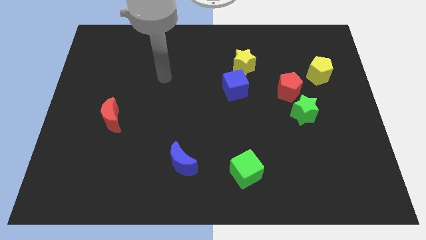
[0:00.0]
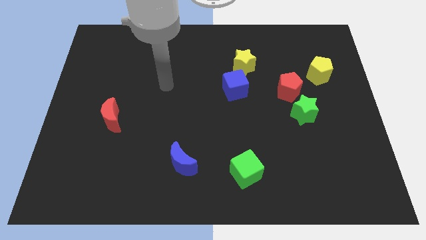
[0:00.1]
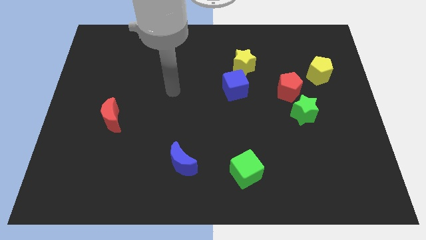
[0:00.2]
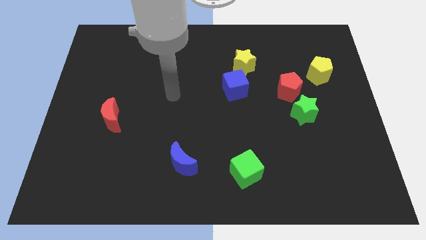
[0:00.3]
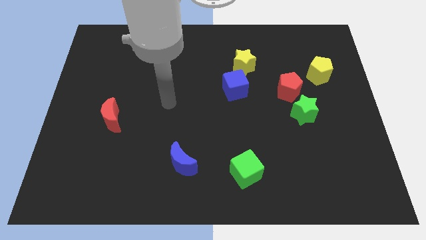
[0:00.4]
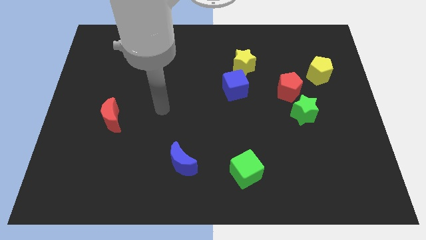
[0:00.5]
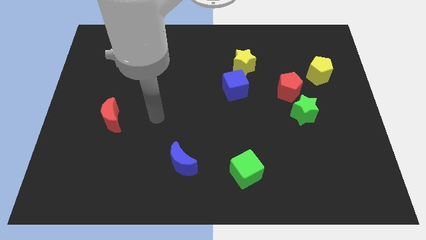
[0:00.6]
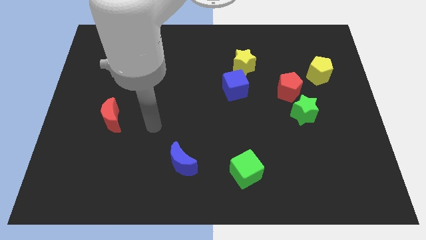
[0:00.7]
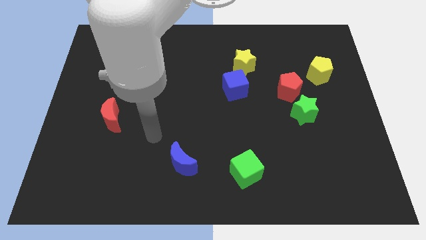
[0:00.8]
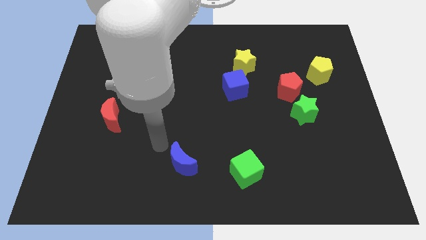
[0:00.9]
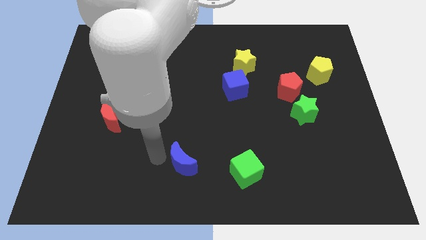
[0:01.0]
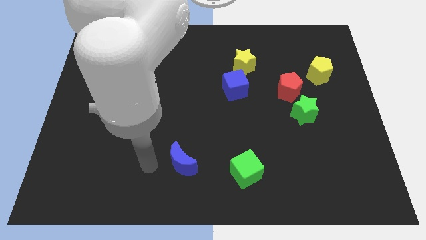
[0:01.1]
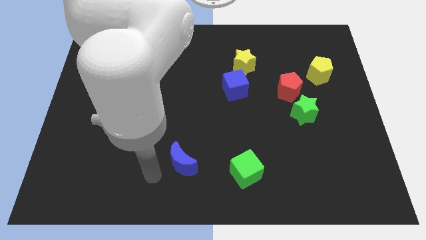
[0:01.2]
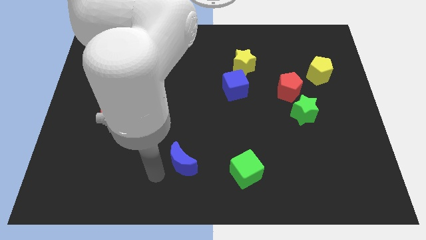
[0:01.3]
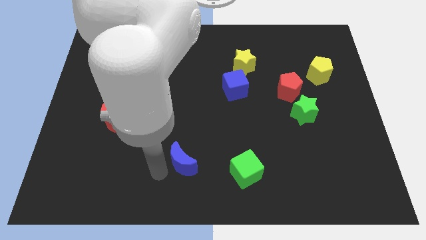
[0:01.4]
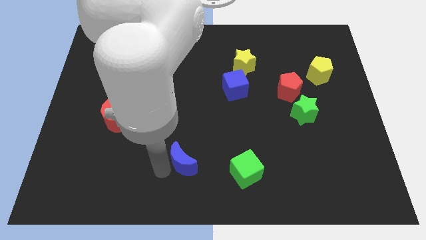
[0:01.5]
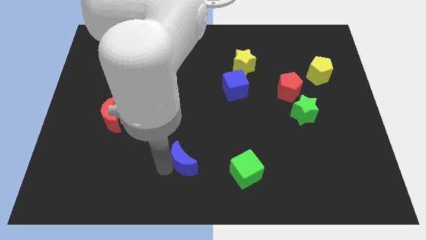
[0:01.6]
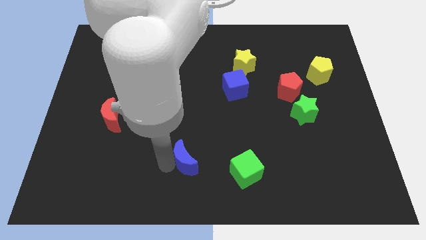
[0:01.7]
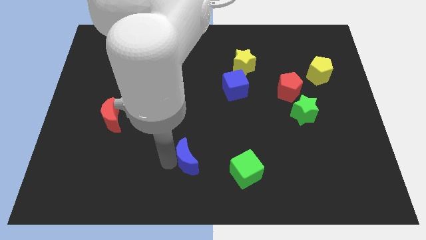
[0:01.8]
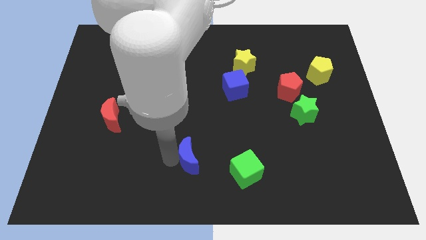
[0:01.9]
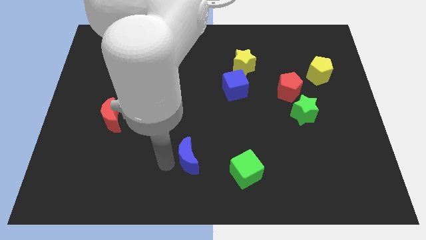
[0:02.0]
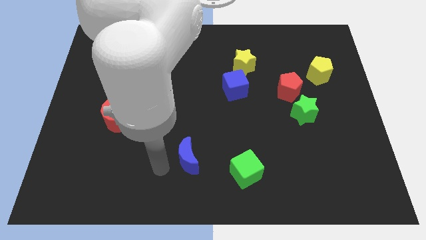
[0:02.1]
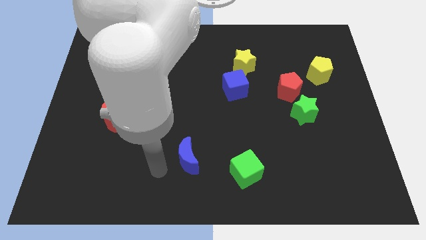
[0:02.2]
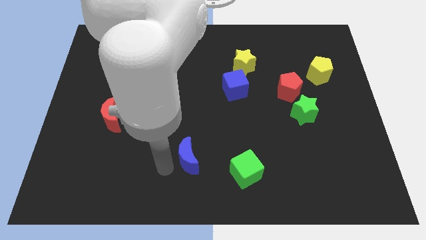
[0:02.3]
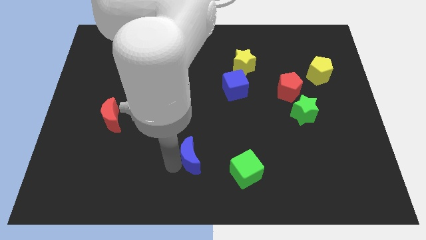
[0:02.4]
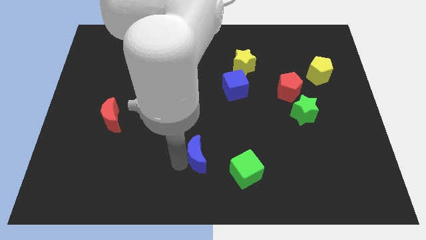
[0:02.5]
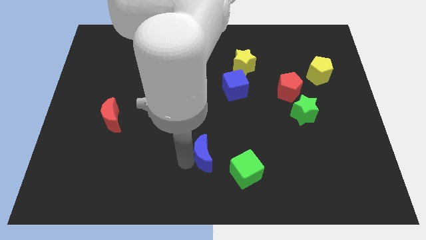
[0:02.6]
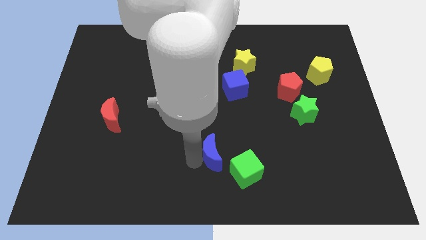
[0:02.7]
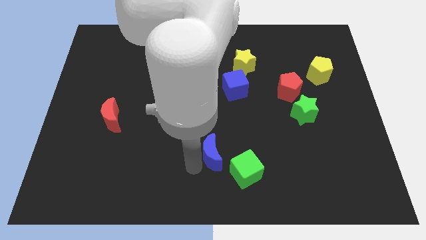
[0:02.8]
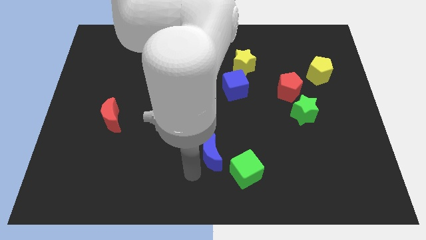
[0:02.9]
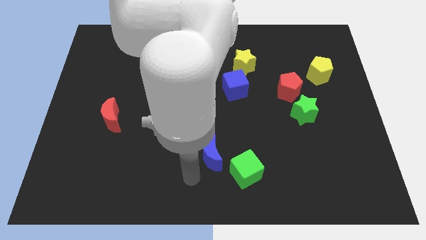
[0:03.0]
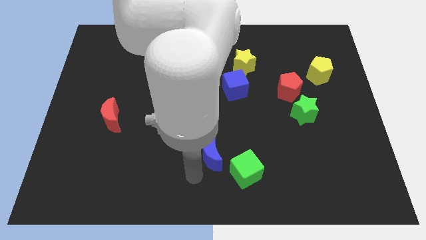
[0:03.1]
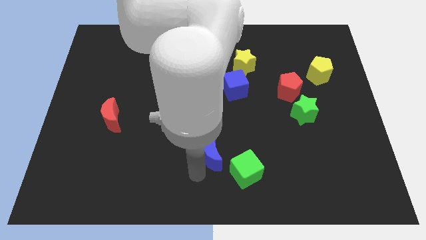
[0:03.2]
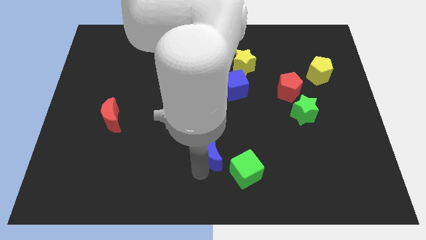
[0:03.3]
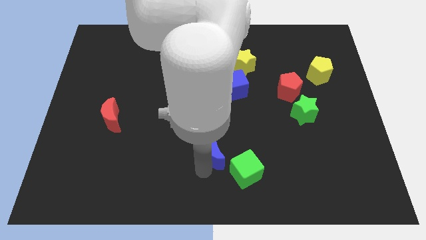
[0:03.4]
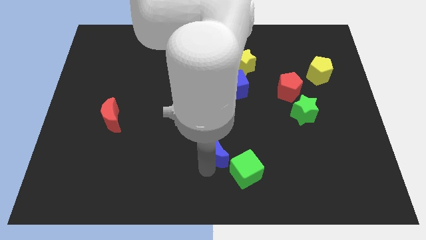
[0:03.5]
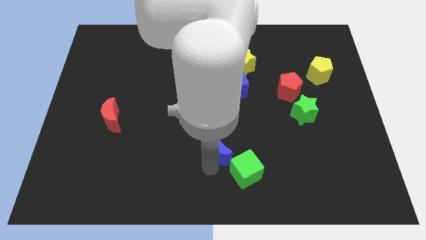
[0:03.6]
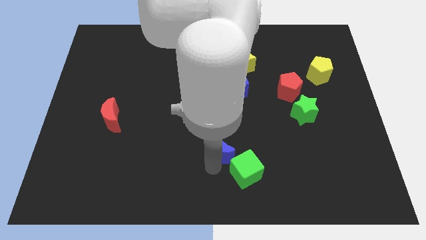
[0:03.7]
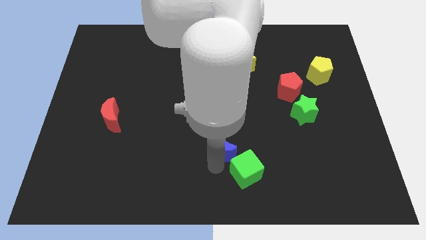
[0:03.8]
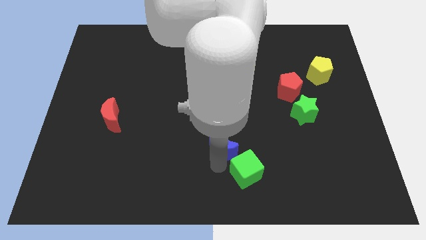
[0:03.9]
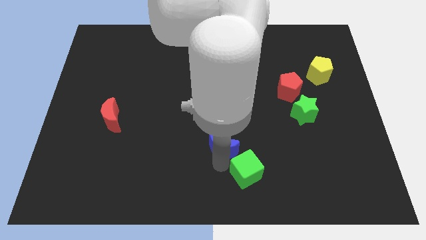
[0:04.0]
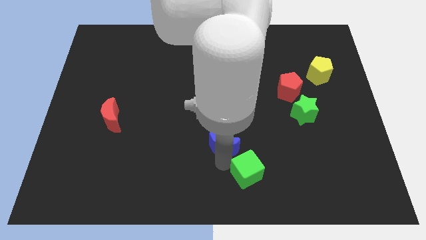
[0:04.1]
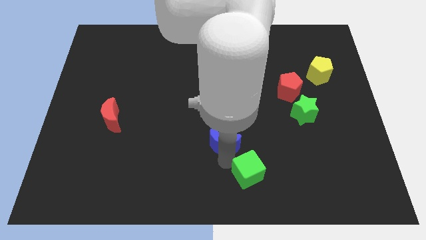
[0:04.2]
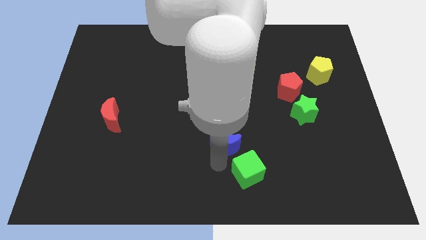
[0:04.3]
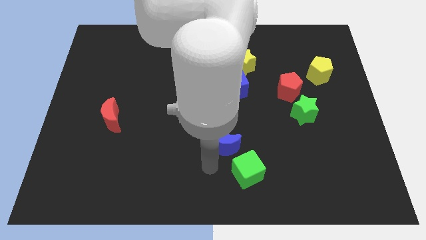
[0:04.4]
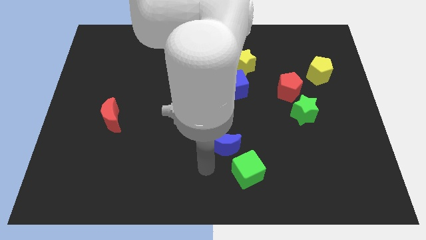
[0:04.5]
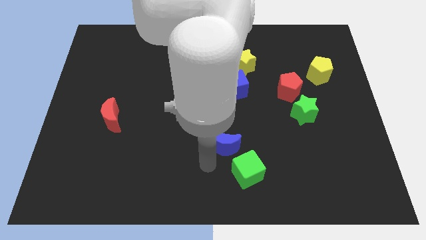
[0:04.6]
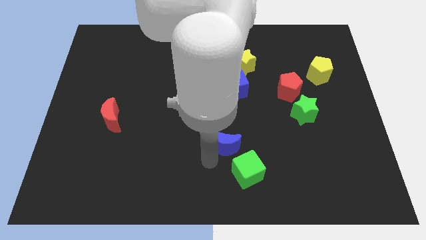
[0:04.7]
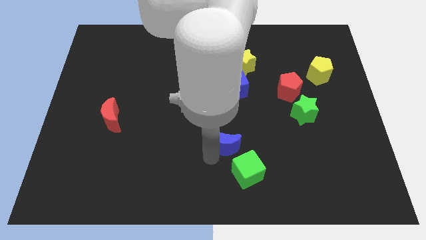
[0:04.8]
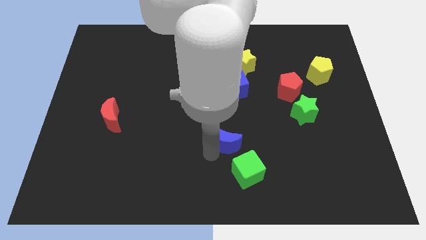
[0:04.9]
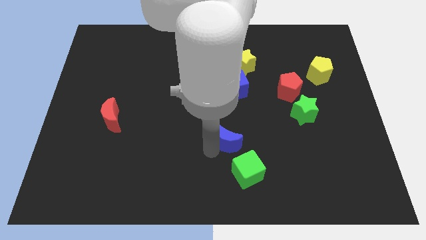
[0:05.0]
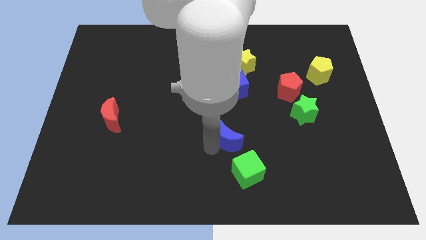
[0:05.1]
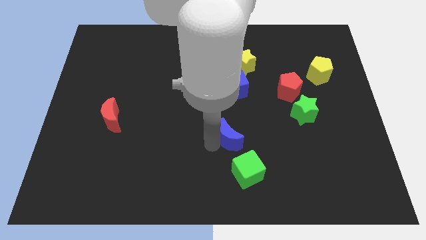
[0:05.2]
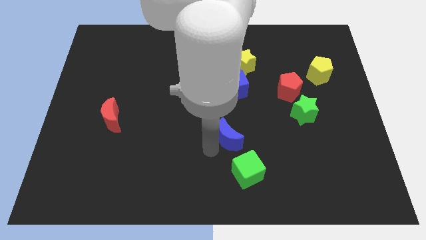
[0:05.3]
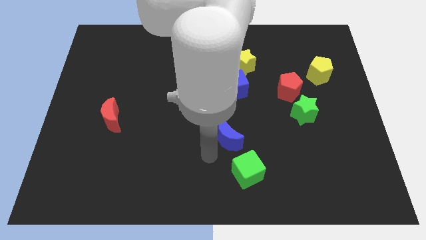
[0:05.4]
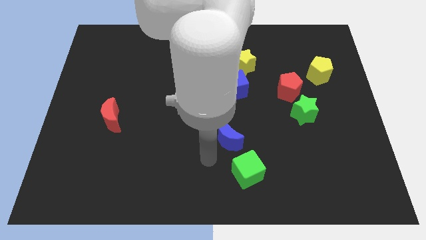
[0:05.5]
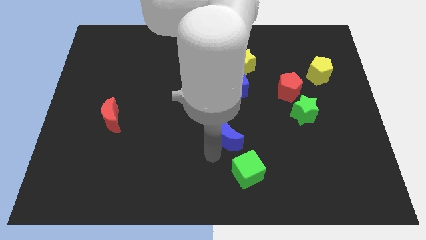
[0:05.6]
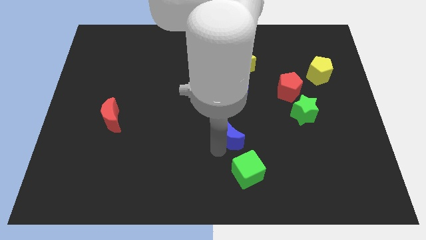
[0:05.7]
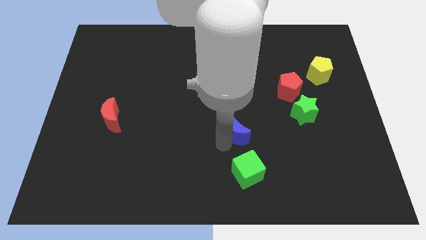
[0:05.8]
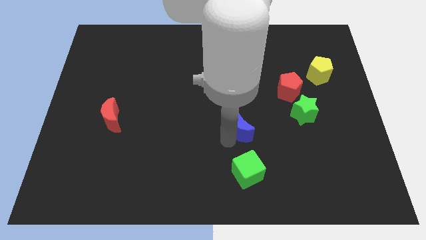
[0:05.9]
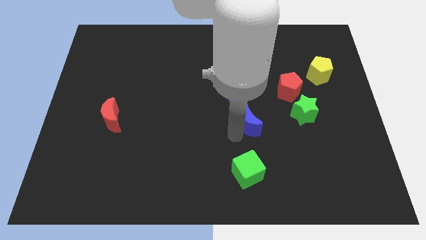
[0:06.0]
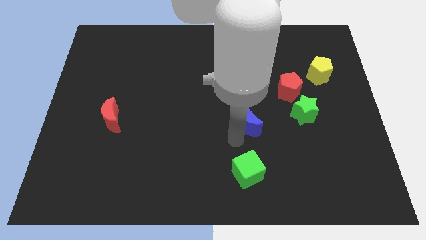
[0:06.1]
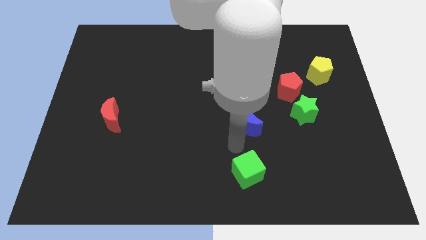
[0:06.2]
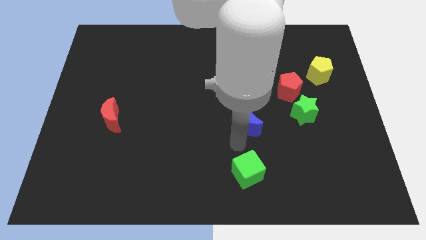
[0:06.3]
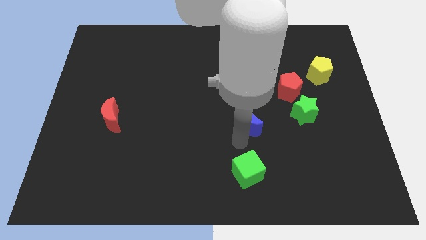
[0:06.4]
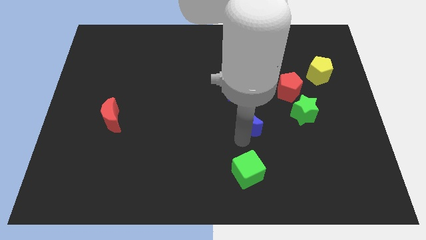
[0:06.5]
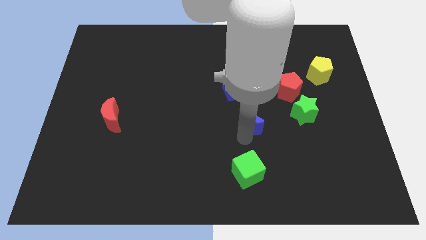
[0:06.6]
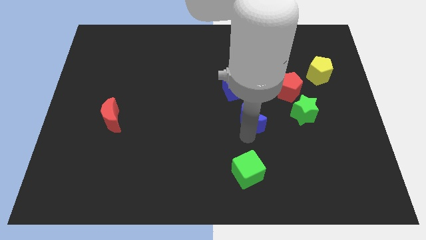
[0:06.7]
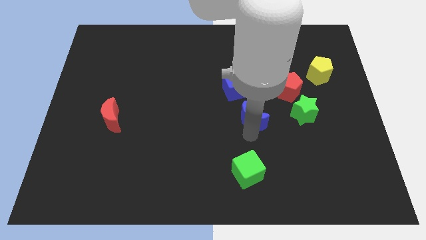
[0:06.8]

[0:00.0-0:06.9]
put the blue moon diagonally down and to the right of the blue cube
